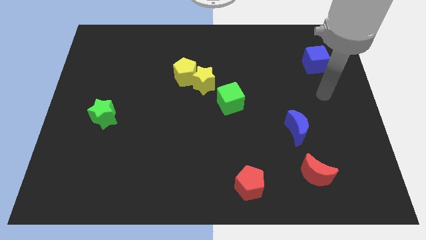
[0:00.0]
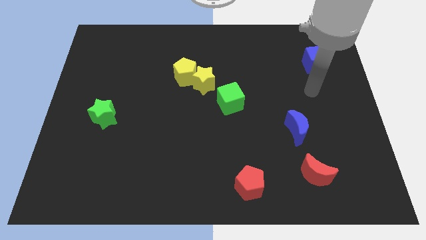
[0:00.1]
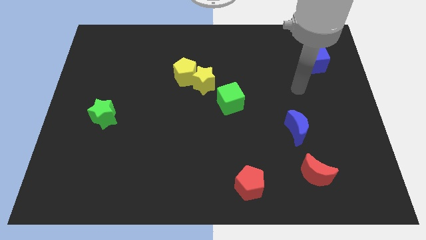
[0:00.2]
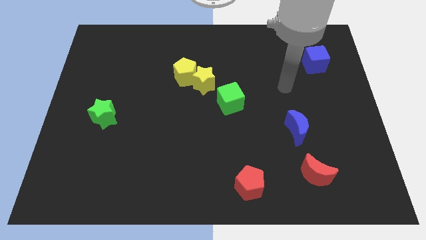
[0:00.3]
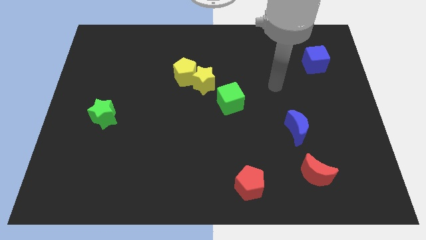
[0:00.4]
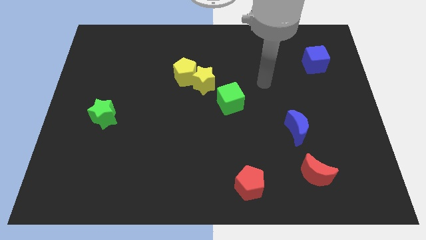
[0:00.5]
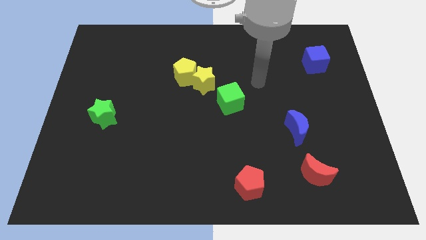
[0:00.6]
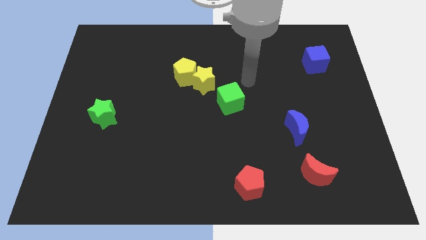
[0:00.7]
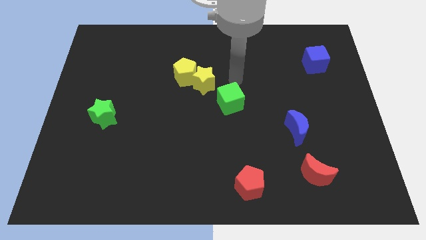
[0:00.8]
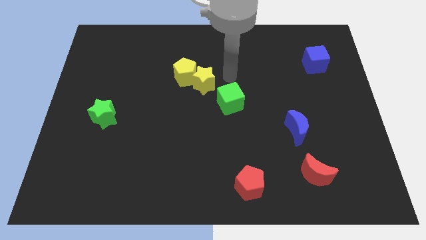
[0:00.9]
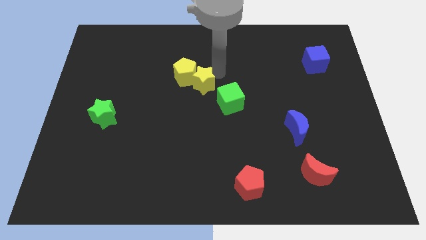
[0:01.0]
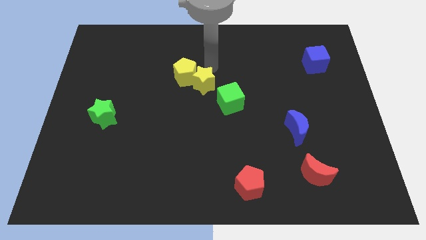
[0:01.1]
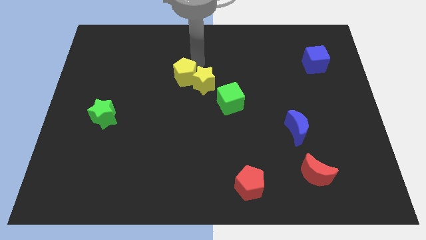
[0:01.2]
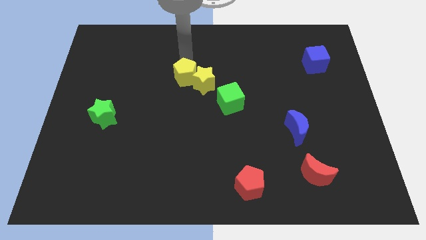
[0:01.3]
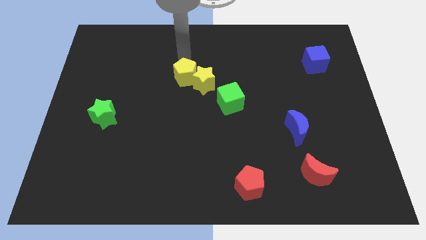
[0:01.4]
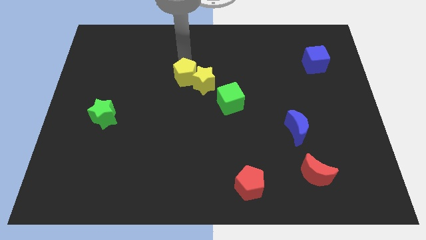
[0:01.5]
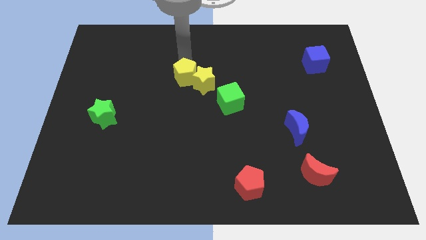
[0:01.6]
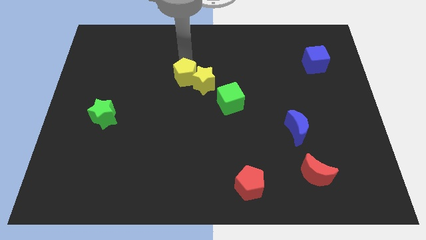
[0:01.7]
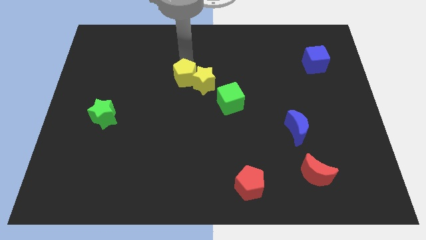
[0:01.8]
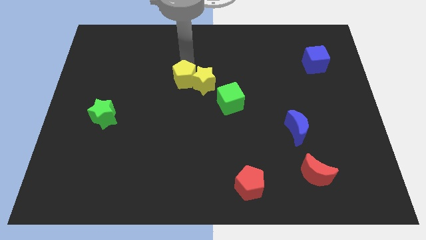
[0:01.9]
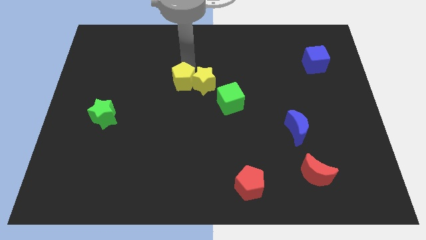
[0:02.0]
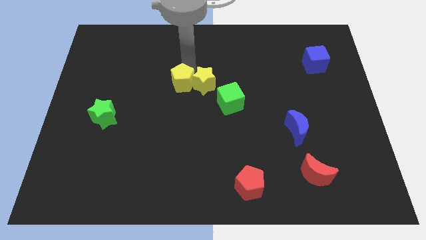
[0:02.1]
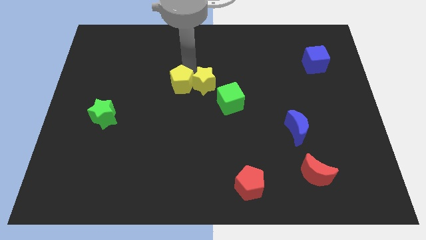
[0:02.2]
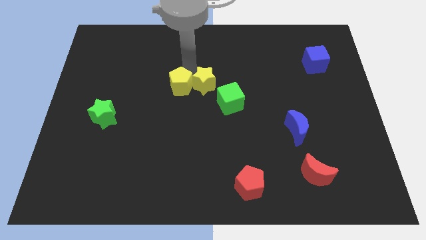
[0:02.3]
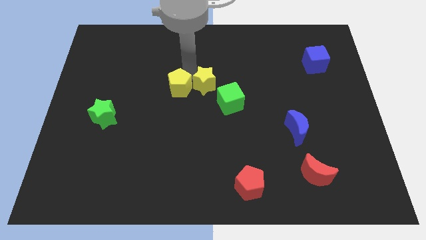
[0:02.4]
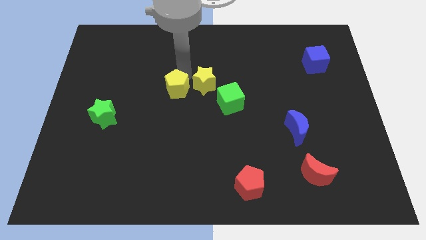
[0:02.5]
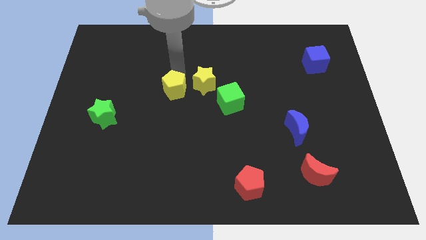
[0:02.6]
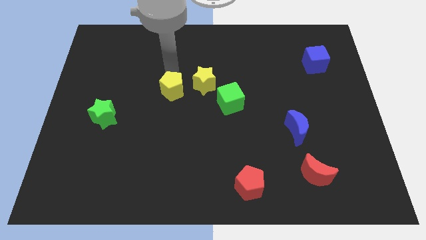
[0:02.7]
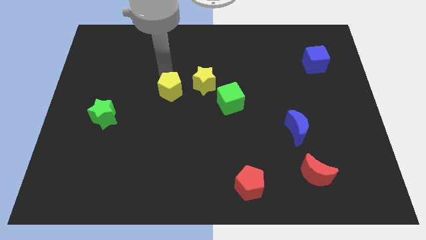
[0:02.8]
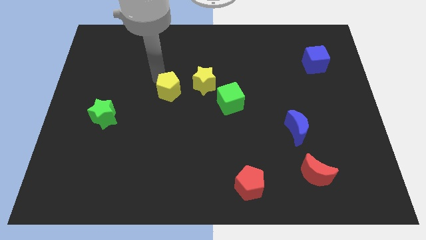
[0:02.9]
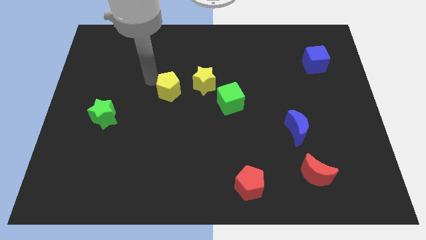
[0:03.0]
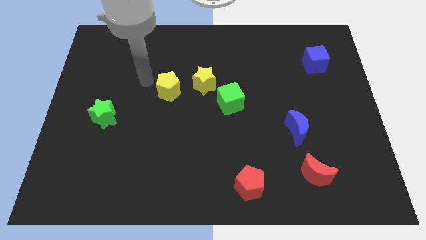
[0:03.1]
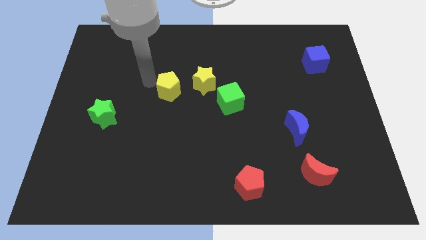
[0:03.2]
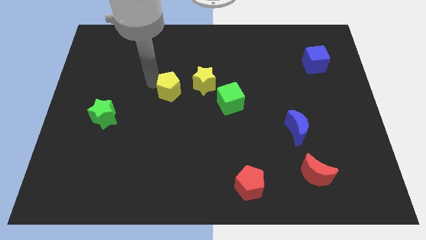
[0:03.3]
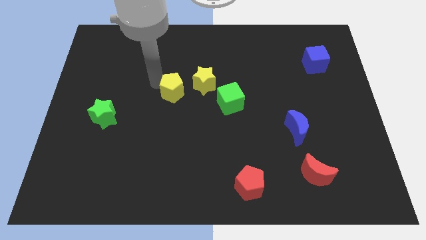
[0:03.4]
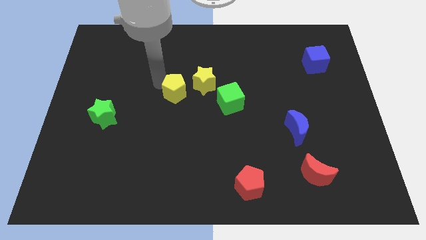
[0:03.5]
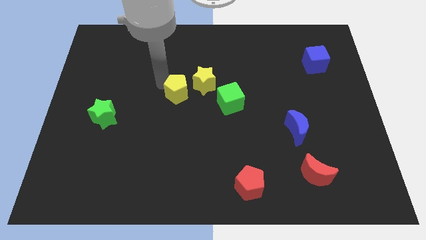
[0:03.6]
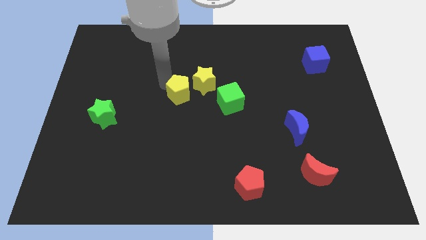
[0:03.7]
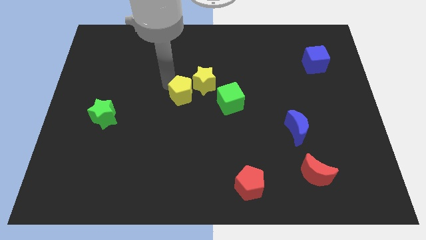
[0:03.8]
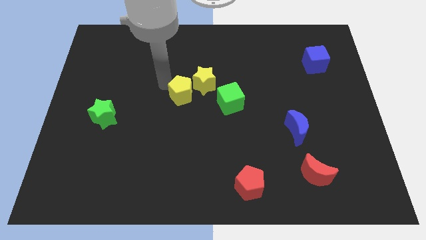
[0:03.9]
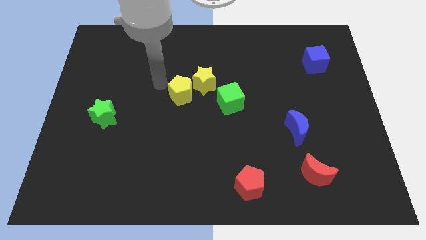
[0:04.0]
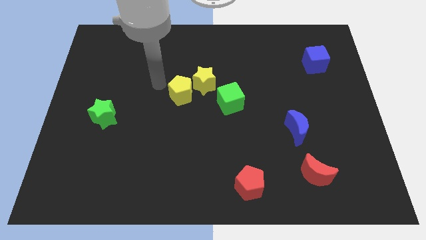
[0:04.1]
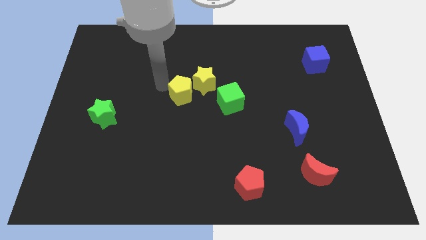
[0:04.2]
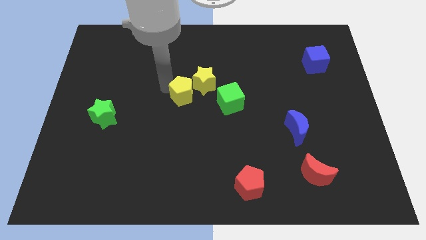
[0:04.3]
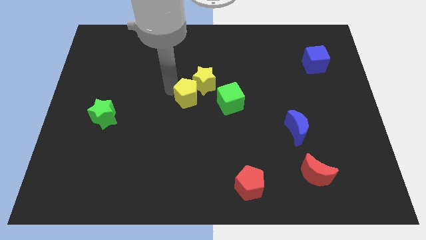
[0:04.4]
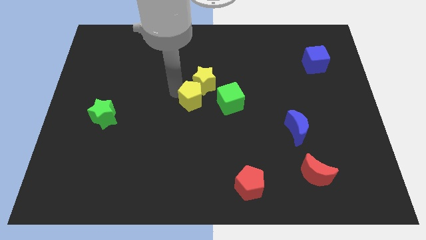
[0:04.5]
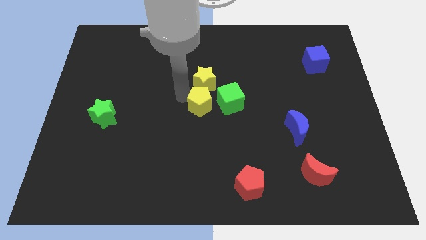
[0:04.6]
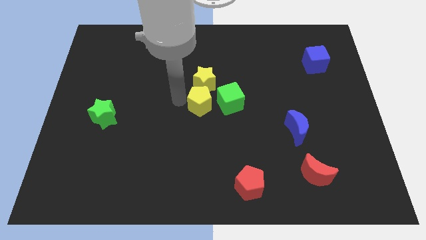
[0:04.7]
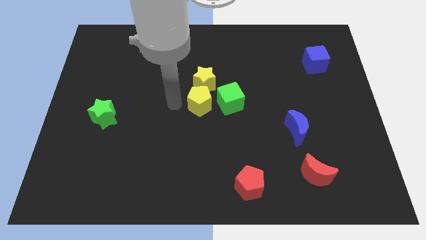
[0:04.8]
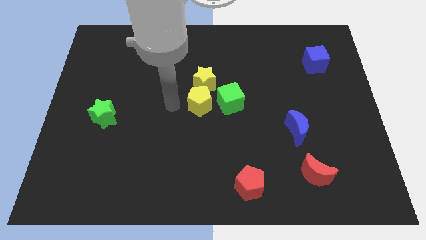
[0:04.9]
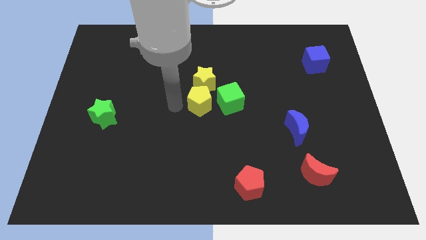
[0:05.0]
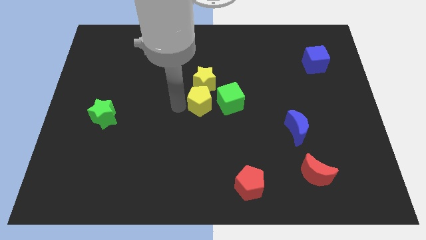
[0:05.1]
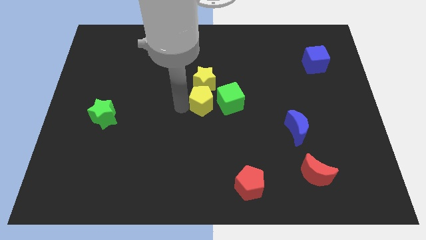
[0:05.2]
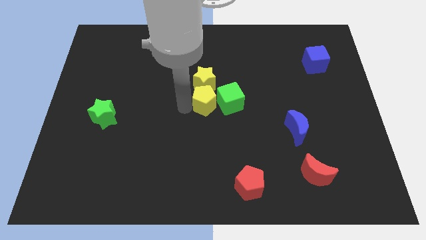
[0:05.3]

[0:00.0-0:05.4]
push the yellow pentagon next to the green cube

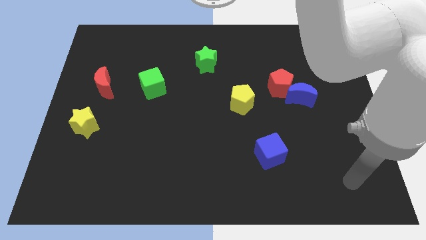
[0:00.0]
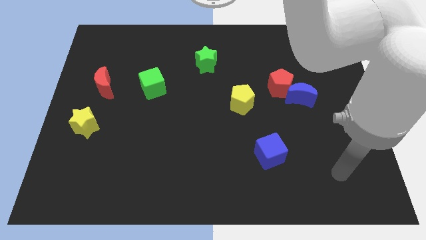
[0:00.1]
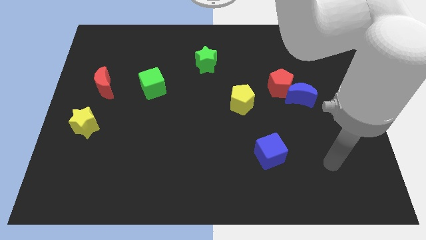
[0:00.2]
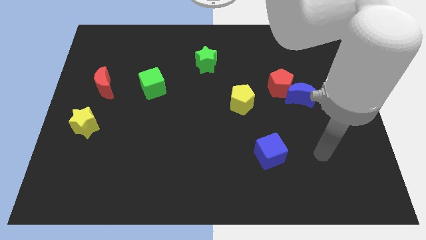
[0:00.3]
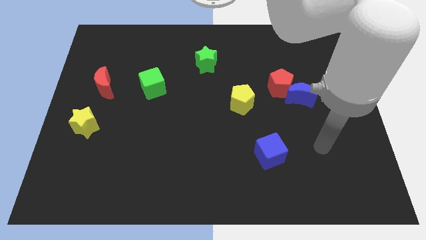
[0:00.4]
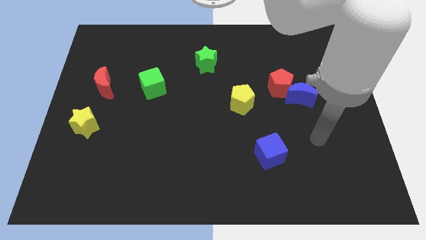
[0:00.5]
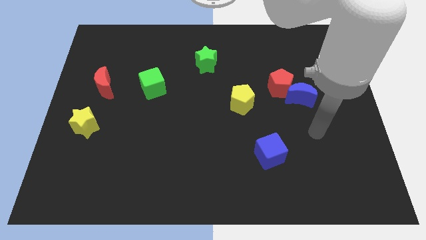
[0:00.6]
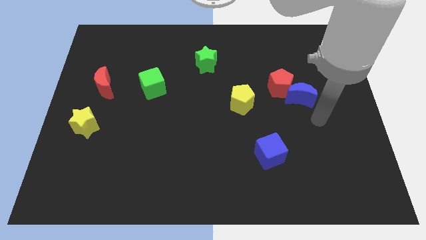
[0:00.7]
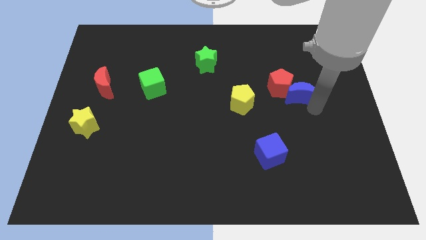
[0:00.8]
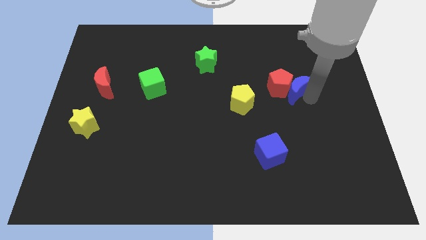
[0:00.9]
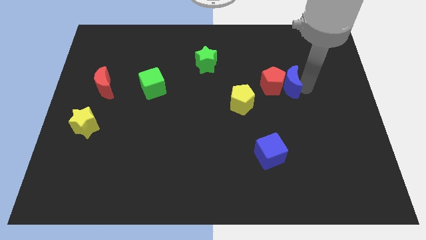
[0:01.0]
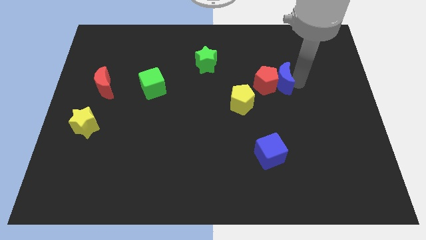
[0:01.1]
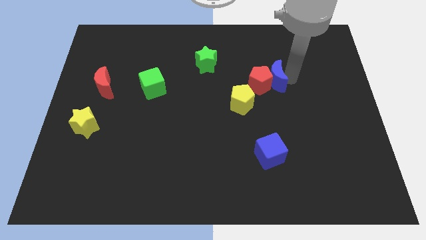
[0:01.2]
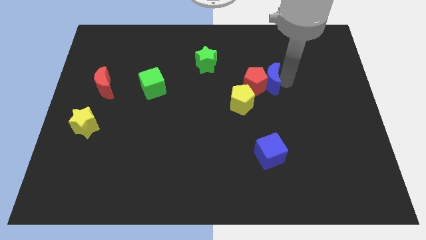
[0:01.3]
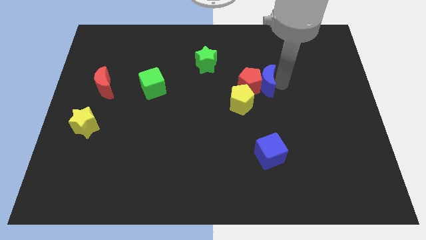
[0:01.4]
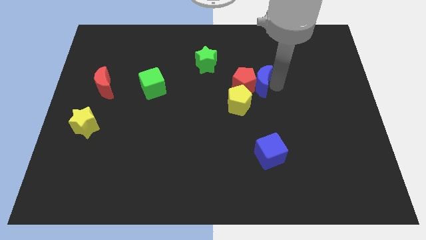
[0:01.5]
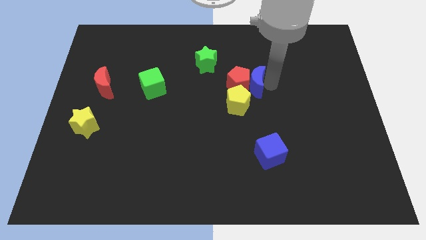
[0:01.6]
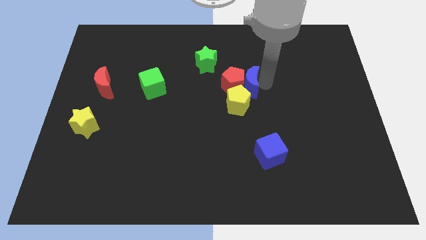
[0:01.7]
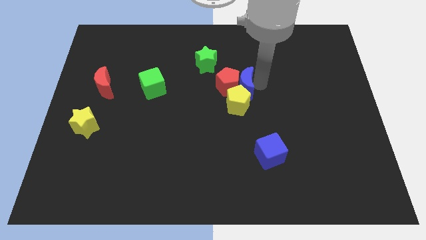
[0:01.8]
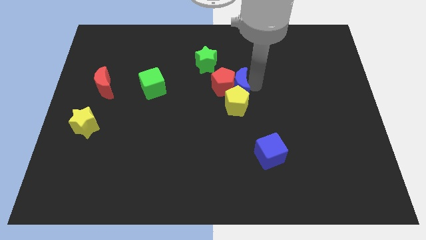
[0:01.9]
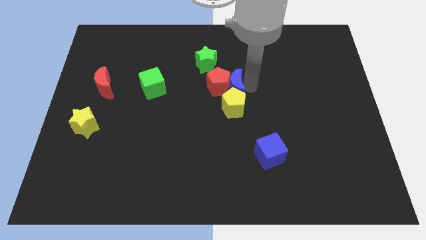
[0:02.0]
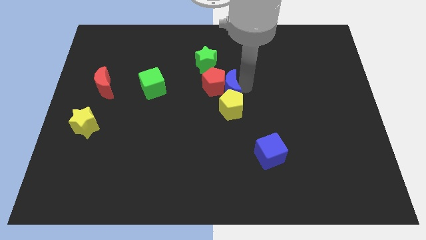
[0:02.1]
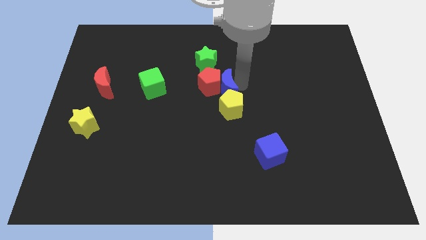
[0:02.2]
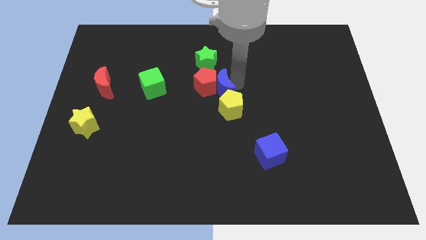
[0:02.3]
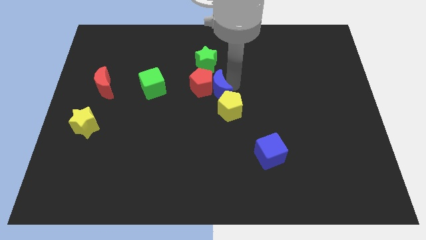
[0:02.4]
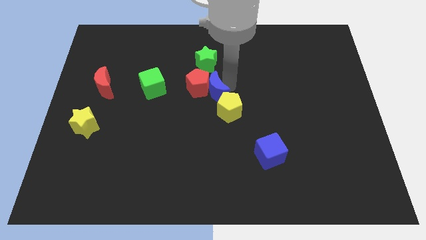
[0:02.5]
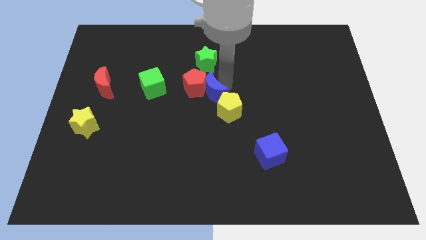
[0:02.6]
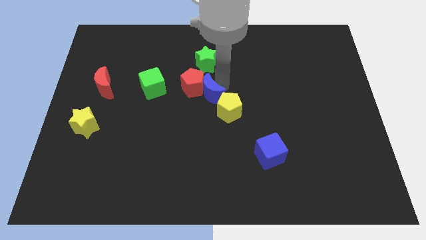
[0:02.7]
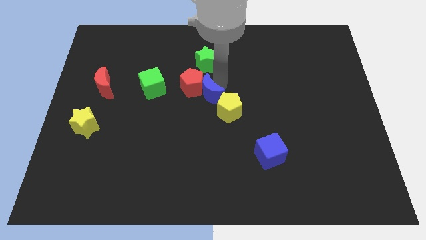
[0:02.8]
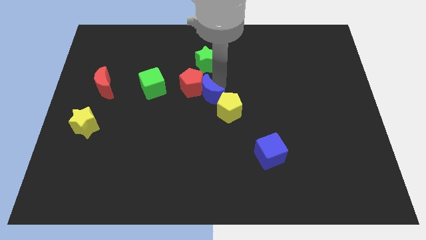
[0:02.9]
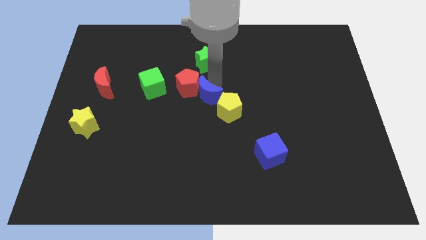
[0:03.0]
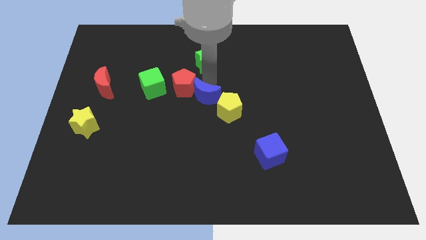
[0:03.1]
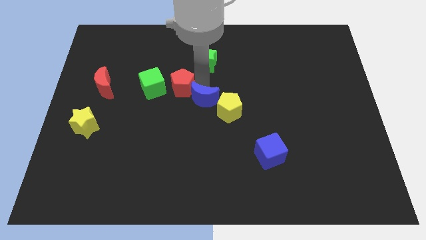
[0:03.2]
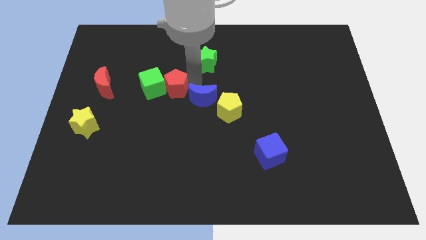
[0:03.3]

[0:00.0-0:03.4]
push the red pentagon to the green cube
